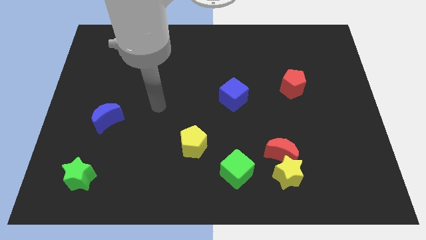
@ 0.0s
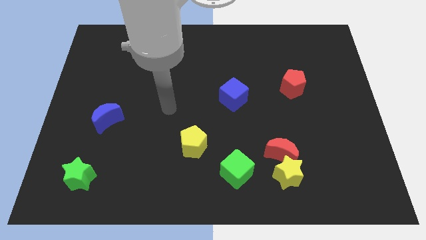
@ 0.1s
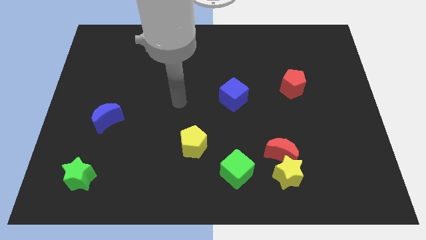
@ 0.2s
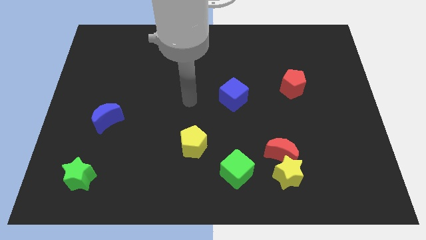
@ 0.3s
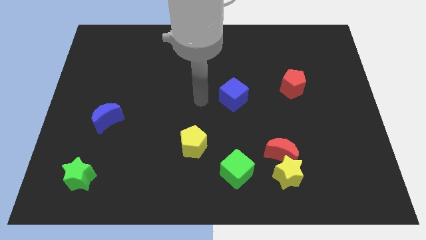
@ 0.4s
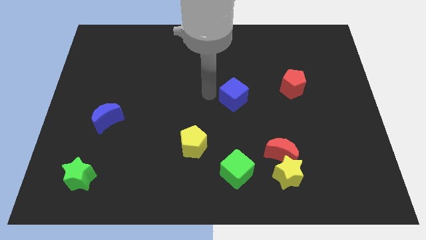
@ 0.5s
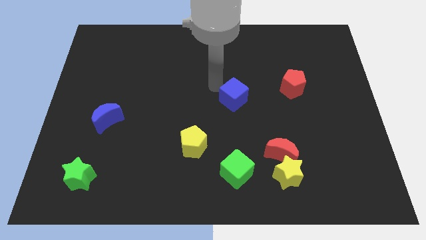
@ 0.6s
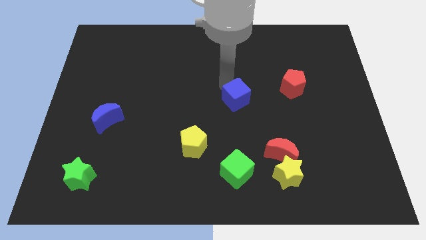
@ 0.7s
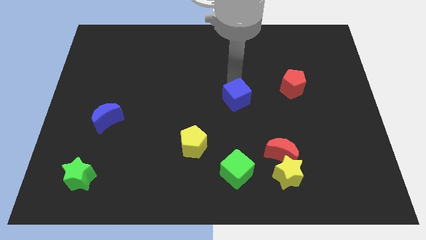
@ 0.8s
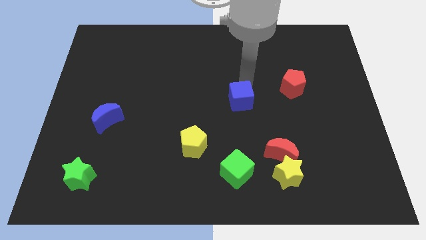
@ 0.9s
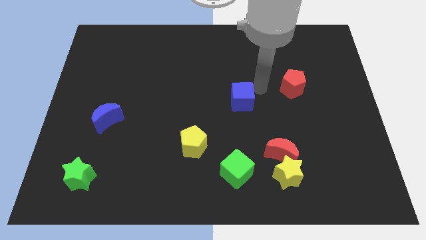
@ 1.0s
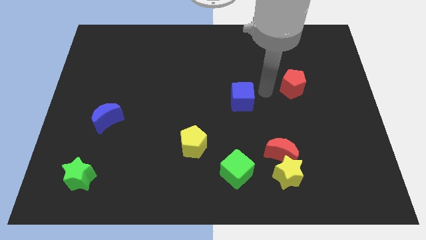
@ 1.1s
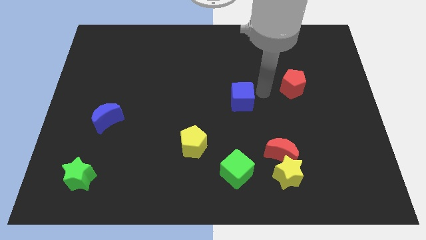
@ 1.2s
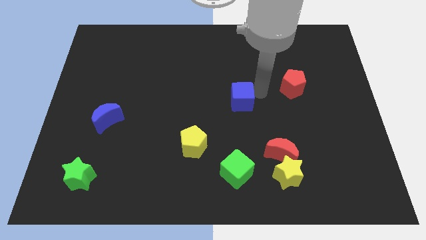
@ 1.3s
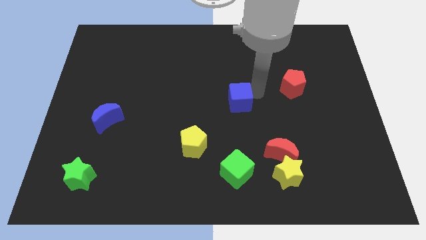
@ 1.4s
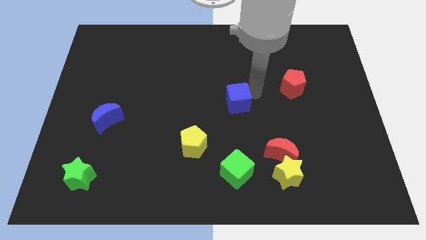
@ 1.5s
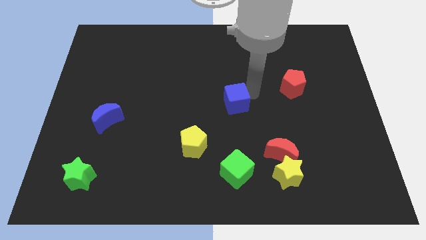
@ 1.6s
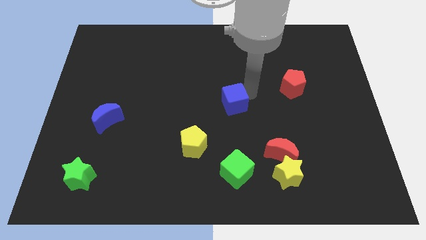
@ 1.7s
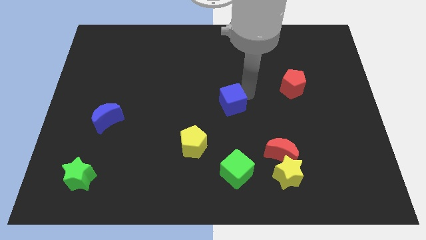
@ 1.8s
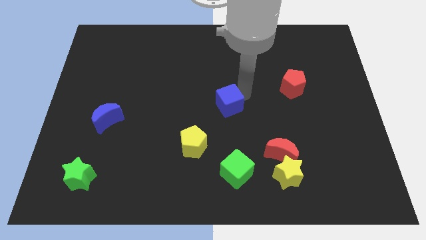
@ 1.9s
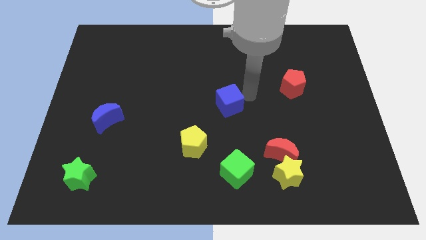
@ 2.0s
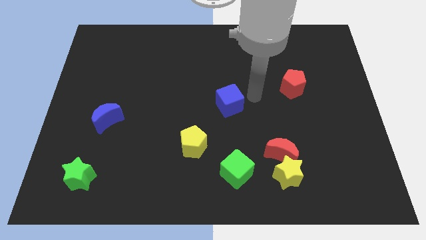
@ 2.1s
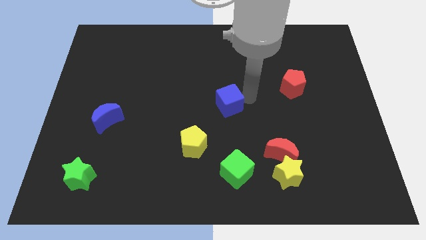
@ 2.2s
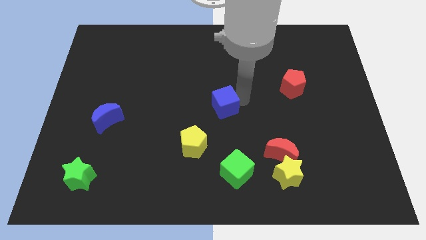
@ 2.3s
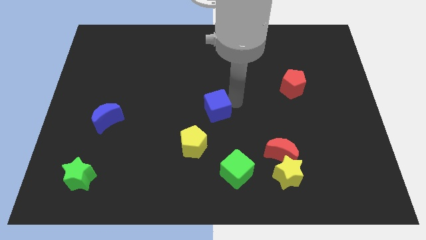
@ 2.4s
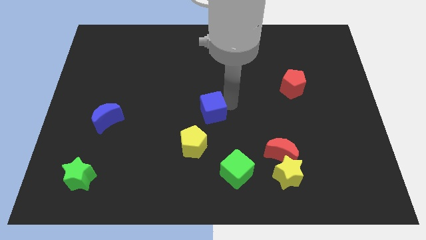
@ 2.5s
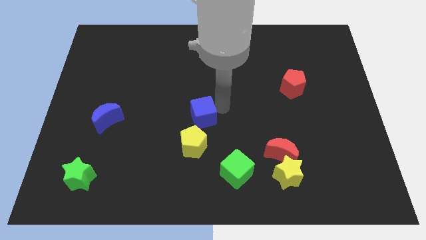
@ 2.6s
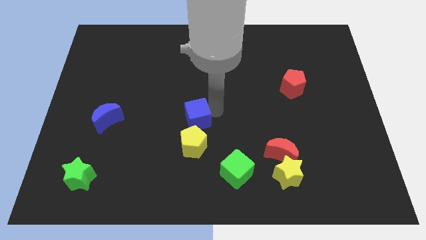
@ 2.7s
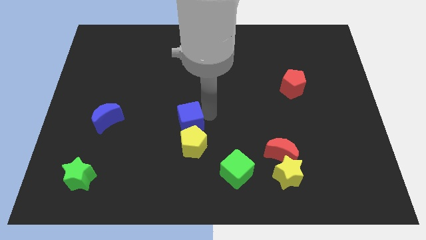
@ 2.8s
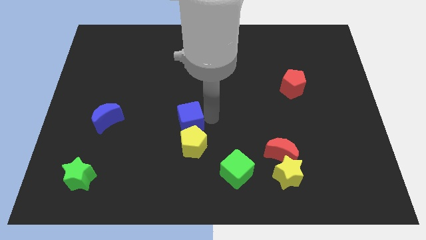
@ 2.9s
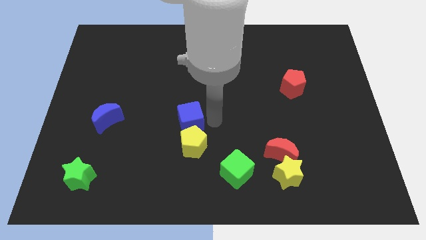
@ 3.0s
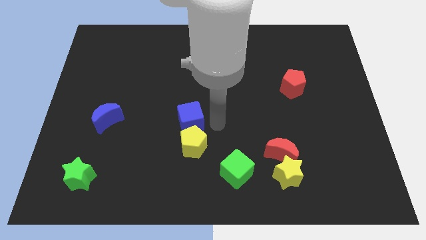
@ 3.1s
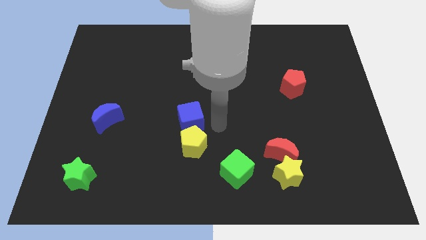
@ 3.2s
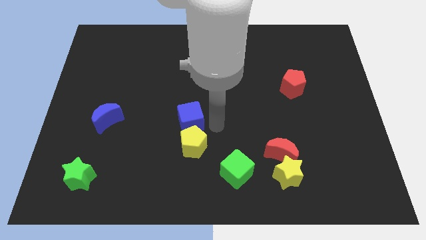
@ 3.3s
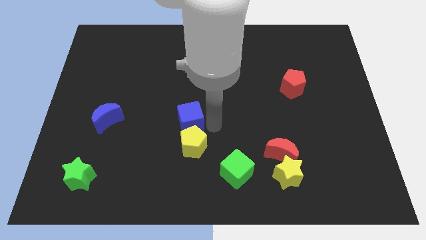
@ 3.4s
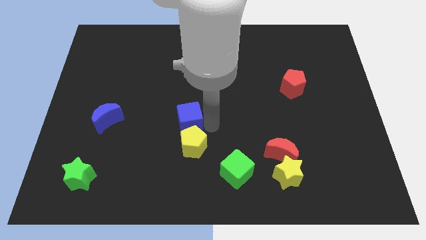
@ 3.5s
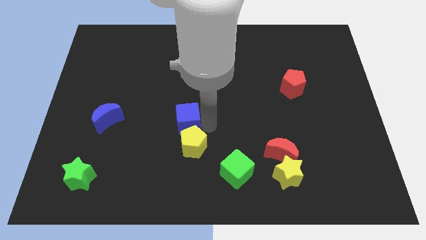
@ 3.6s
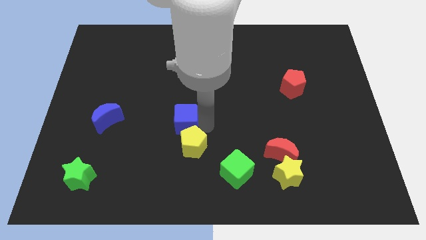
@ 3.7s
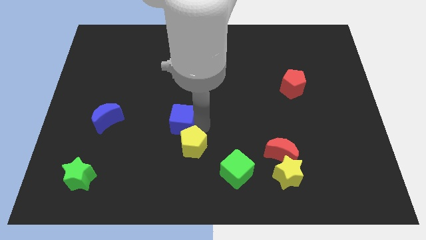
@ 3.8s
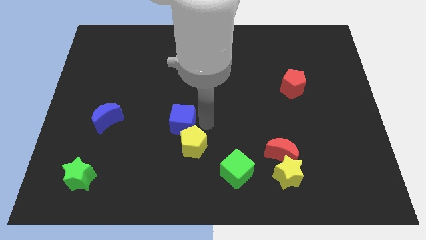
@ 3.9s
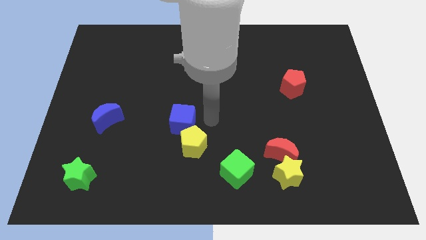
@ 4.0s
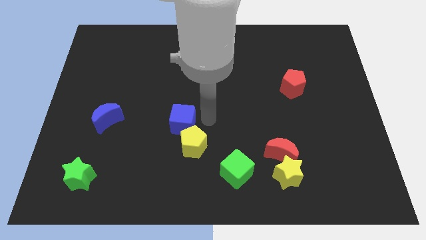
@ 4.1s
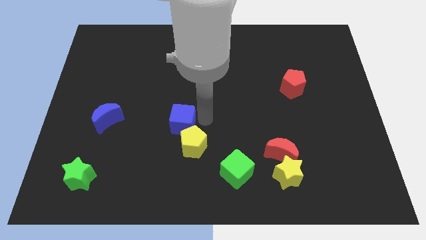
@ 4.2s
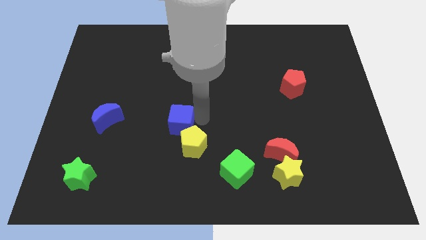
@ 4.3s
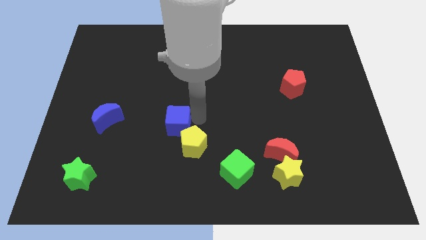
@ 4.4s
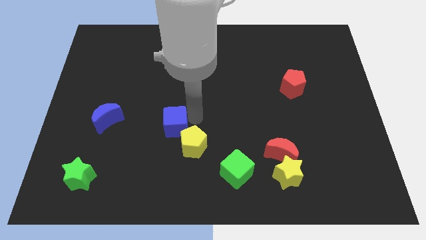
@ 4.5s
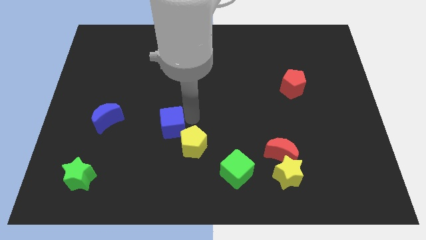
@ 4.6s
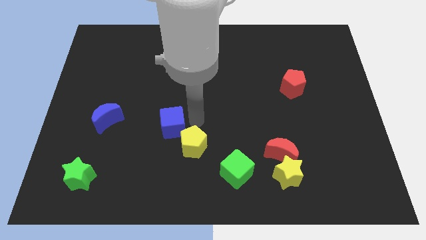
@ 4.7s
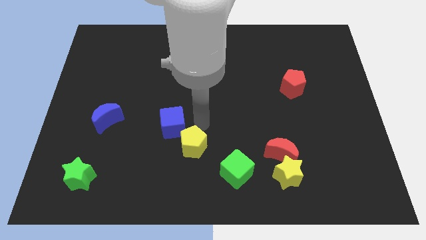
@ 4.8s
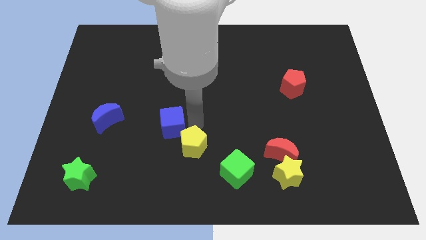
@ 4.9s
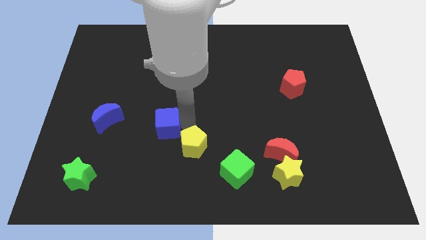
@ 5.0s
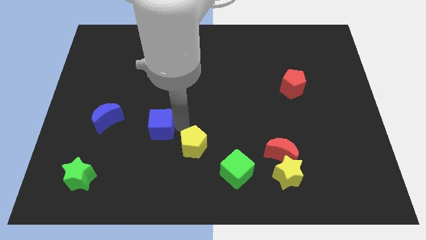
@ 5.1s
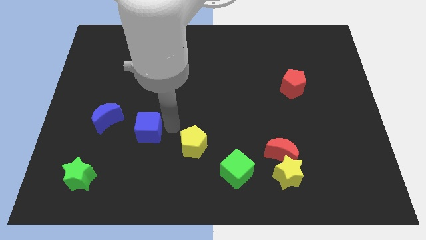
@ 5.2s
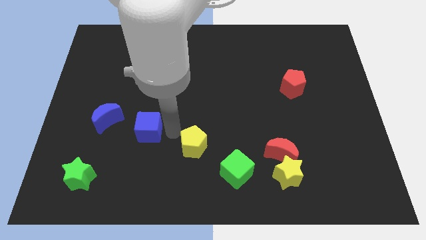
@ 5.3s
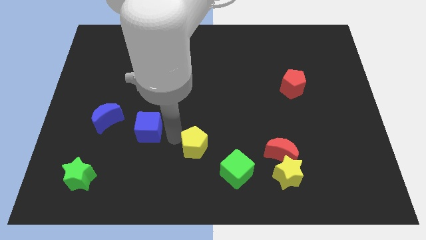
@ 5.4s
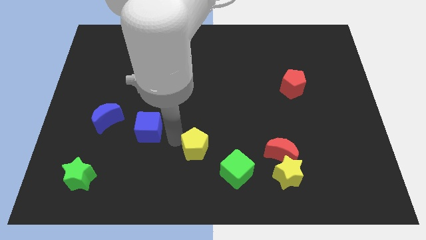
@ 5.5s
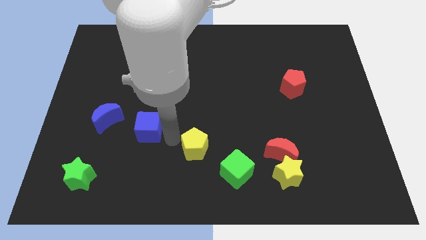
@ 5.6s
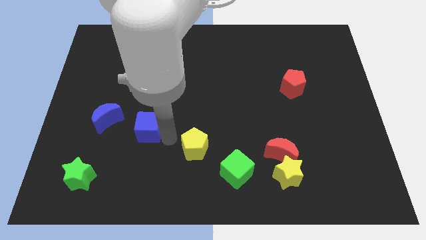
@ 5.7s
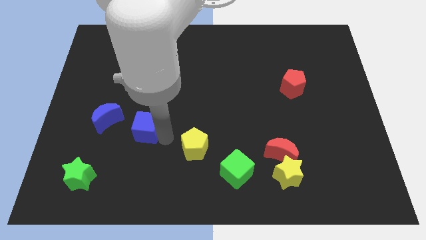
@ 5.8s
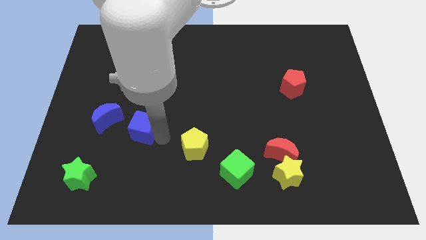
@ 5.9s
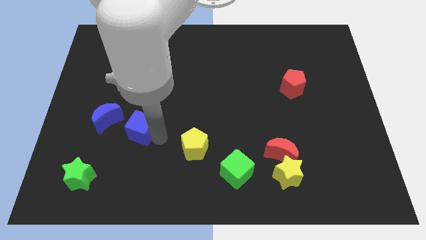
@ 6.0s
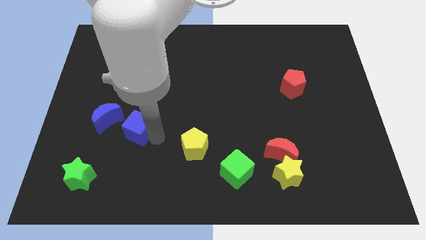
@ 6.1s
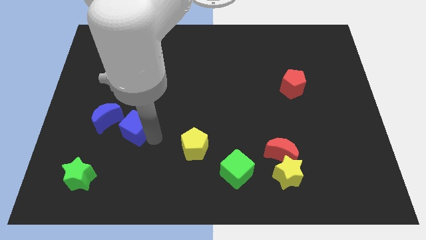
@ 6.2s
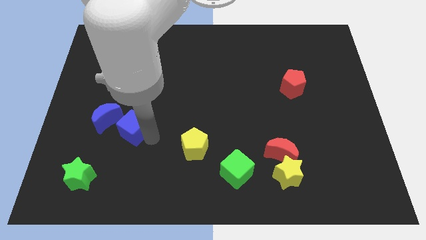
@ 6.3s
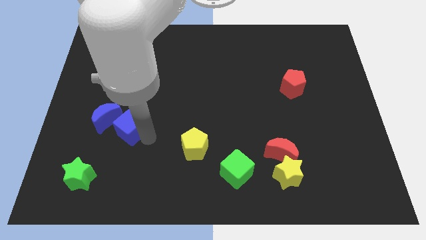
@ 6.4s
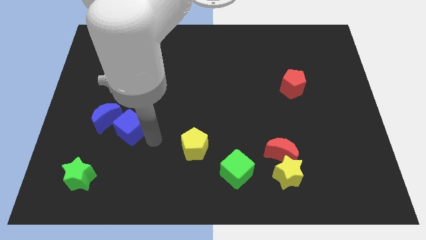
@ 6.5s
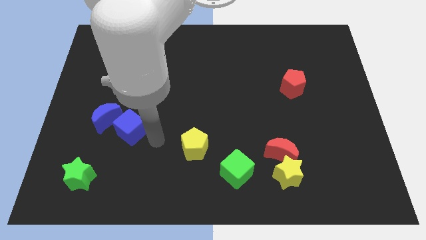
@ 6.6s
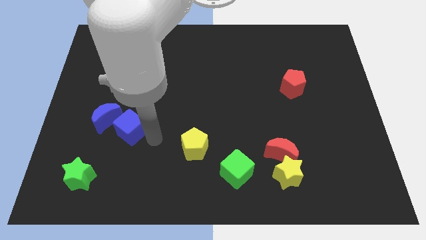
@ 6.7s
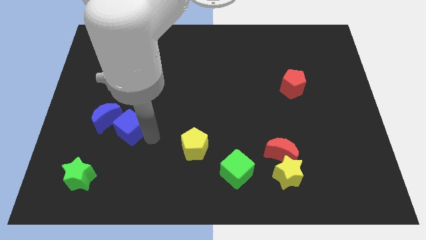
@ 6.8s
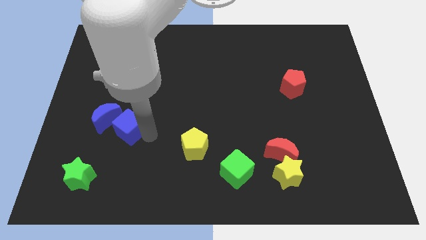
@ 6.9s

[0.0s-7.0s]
put the blue cube close to the blue moon
